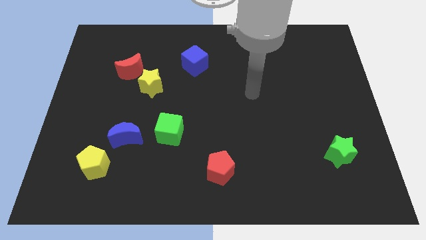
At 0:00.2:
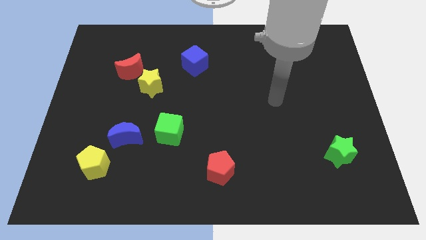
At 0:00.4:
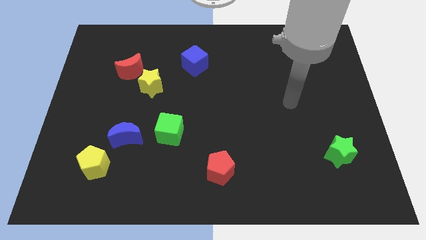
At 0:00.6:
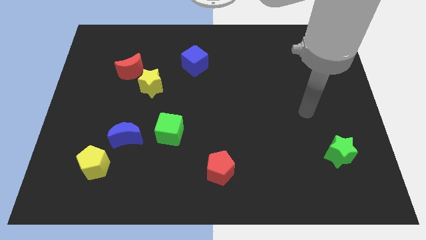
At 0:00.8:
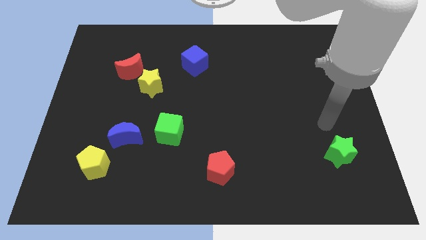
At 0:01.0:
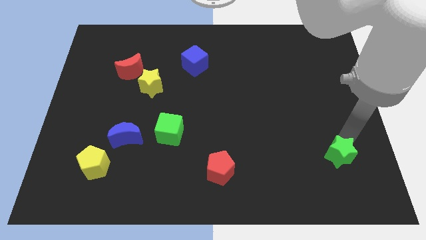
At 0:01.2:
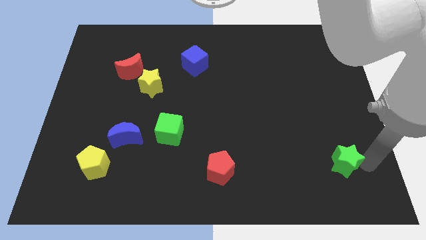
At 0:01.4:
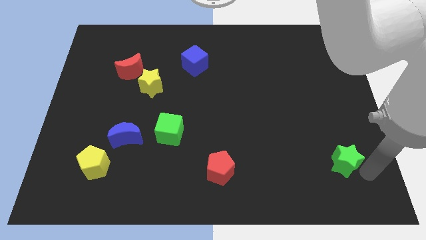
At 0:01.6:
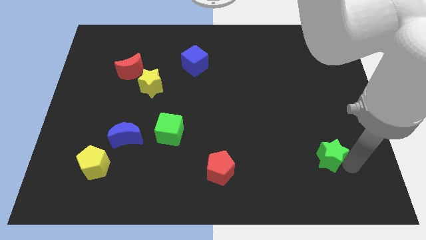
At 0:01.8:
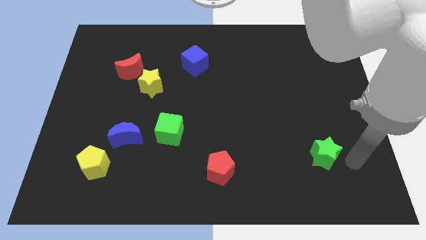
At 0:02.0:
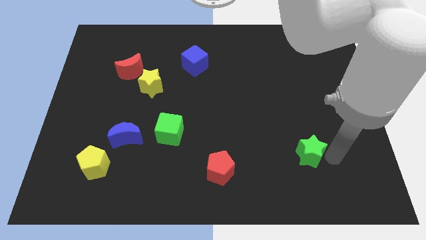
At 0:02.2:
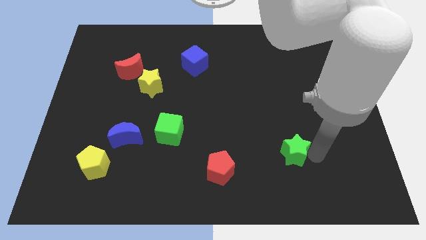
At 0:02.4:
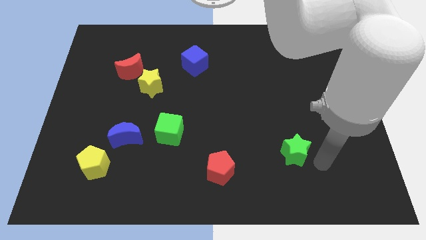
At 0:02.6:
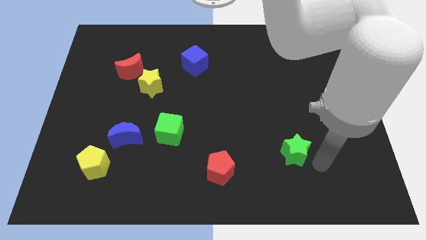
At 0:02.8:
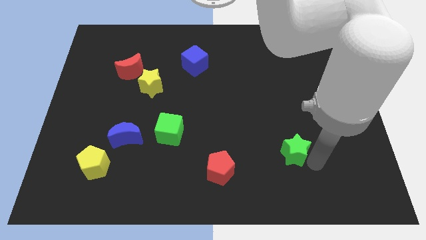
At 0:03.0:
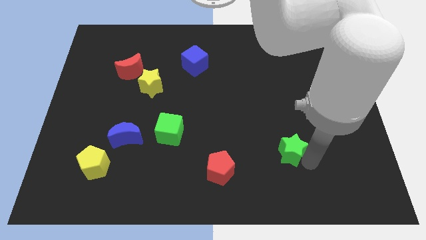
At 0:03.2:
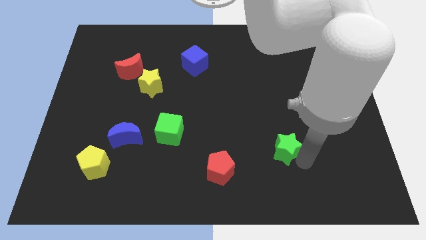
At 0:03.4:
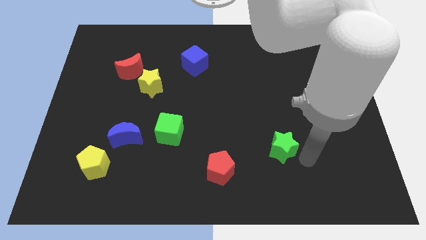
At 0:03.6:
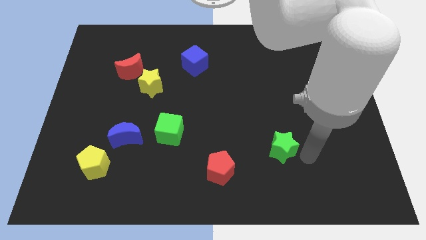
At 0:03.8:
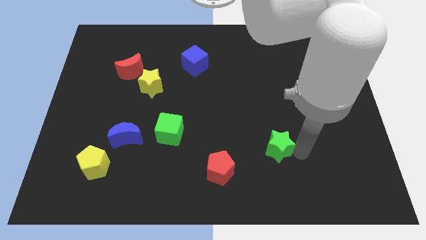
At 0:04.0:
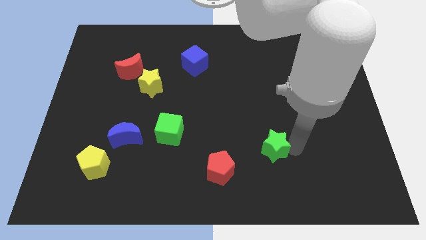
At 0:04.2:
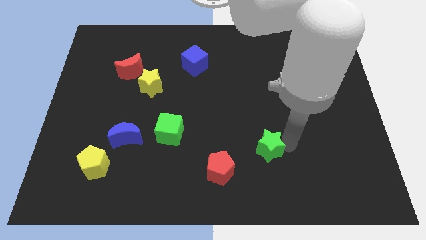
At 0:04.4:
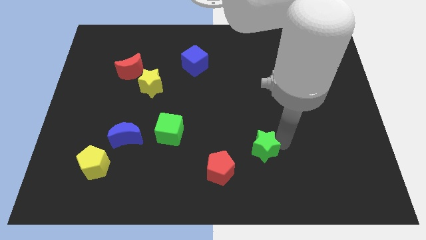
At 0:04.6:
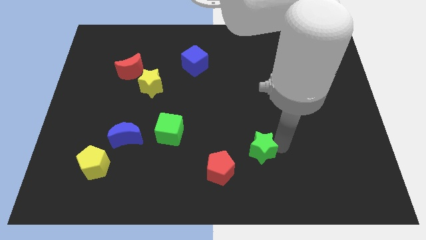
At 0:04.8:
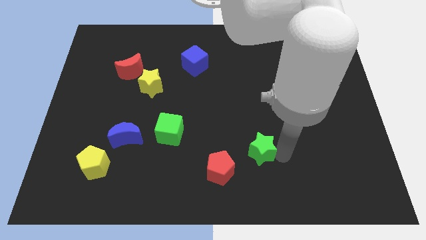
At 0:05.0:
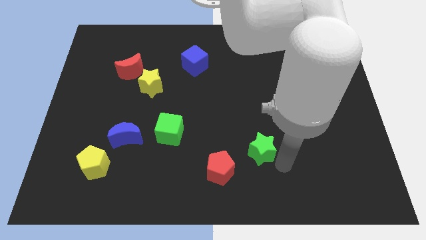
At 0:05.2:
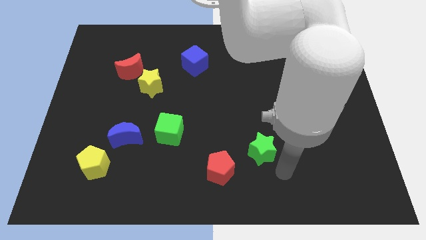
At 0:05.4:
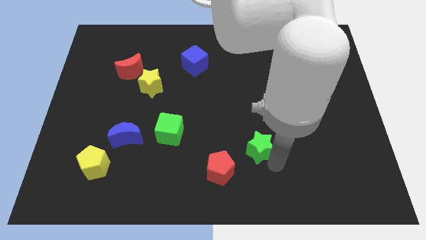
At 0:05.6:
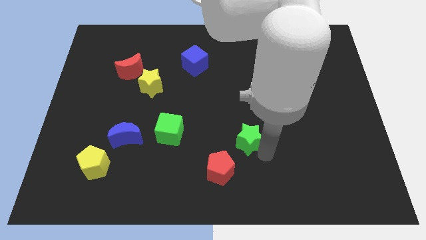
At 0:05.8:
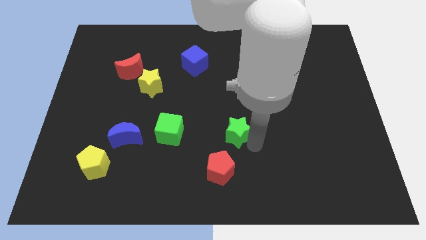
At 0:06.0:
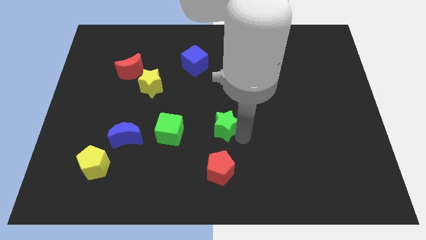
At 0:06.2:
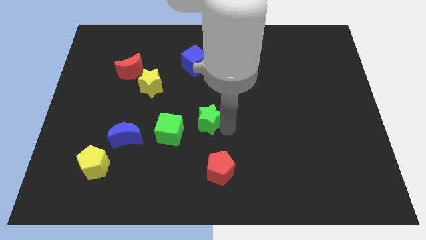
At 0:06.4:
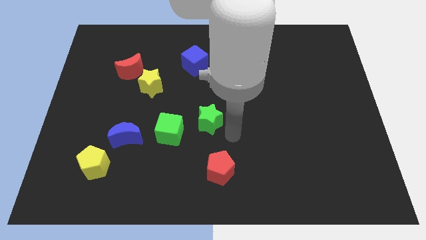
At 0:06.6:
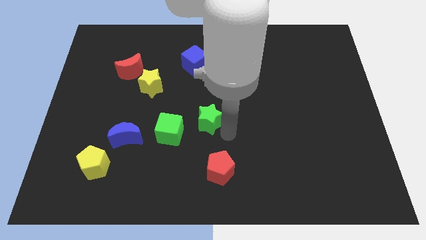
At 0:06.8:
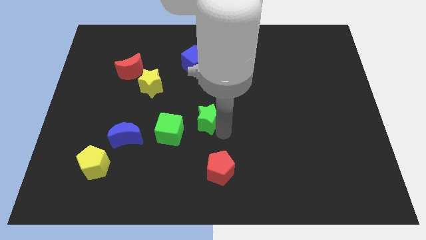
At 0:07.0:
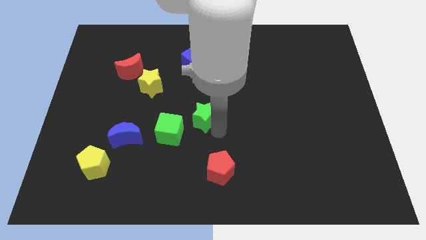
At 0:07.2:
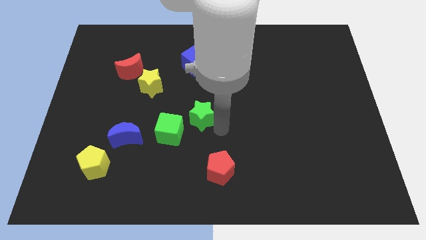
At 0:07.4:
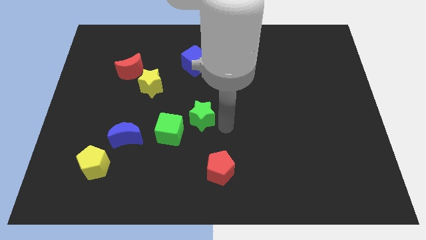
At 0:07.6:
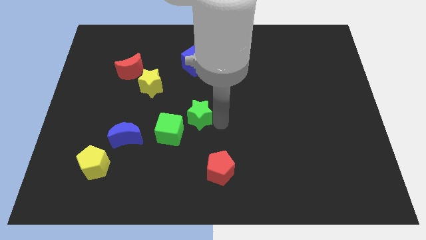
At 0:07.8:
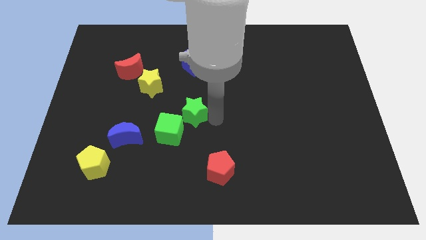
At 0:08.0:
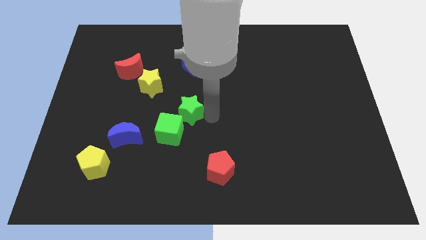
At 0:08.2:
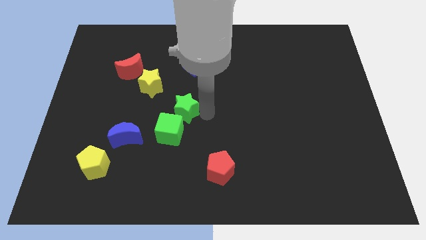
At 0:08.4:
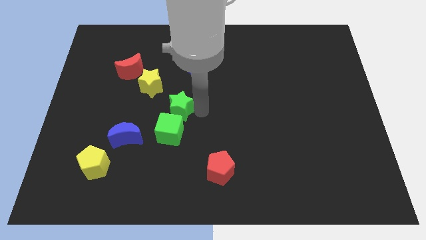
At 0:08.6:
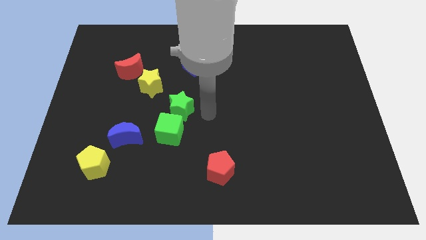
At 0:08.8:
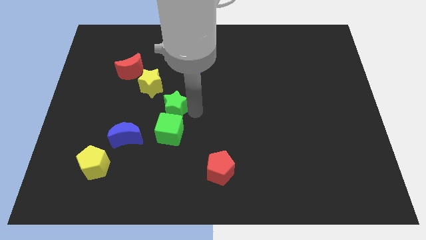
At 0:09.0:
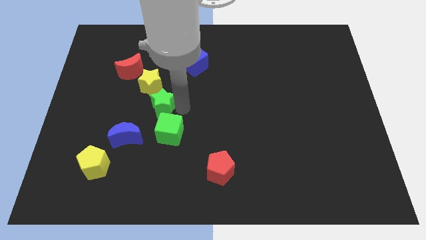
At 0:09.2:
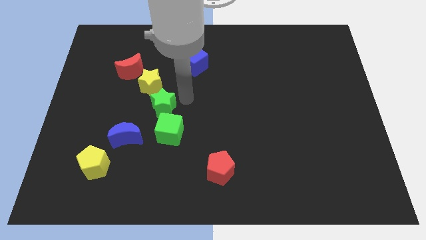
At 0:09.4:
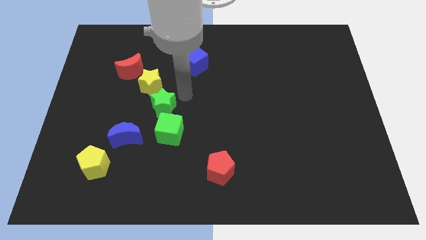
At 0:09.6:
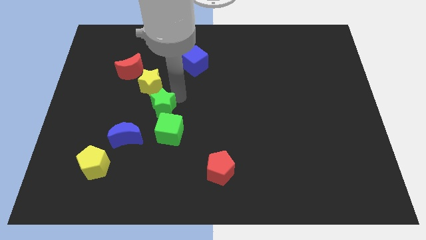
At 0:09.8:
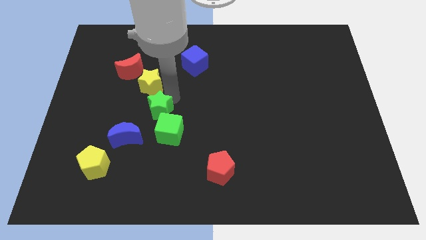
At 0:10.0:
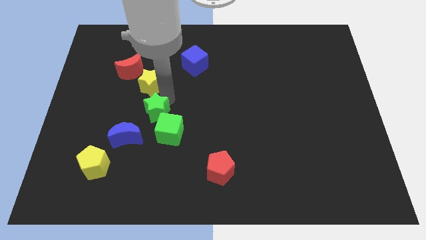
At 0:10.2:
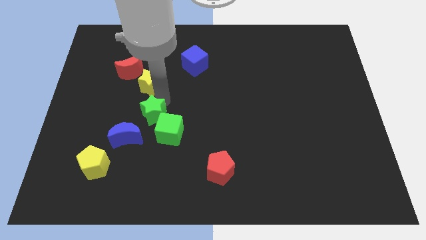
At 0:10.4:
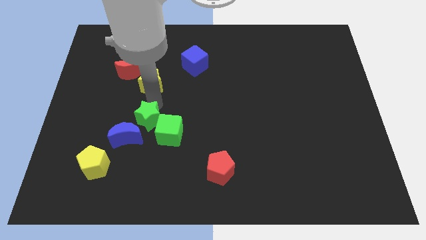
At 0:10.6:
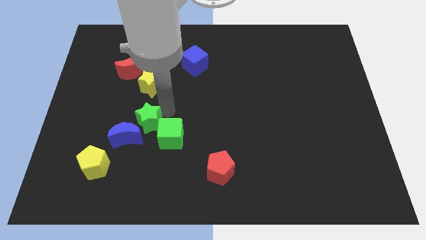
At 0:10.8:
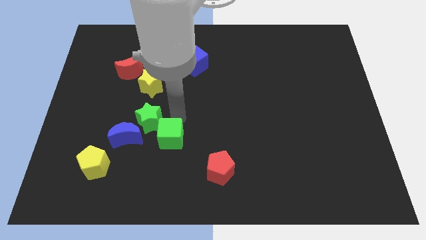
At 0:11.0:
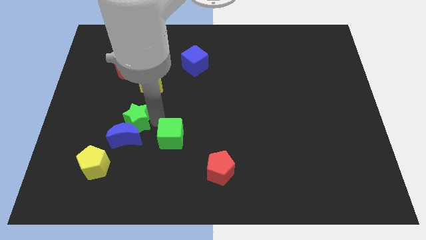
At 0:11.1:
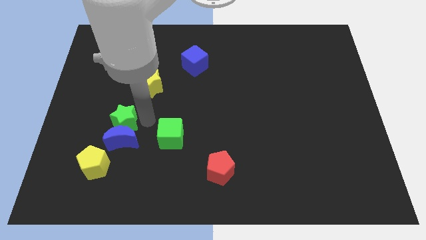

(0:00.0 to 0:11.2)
slide the green star above the yellow pentagon

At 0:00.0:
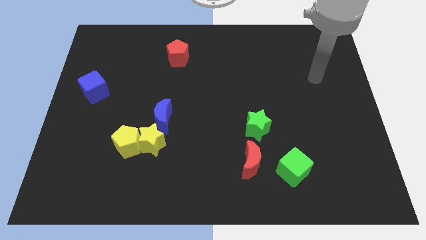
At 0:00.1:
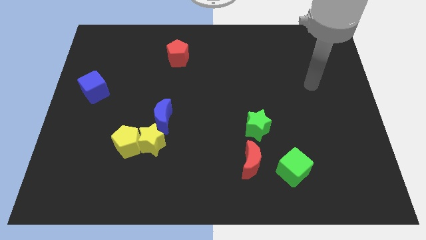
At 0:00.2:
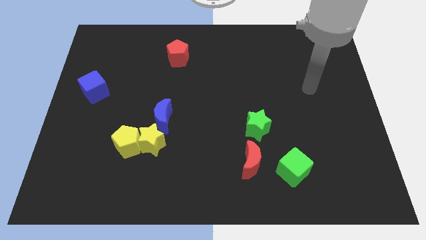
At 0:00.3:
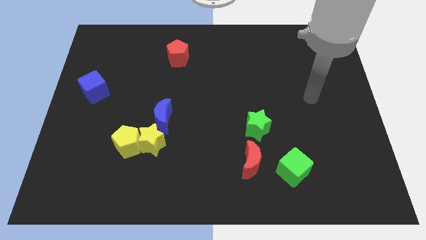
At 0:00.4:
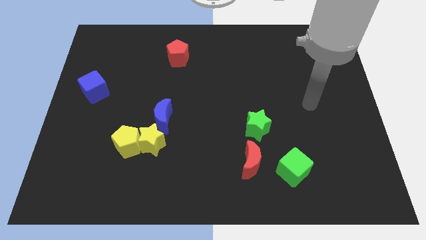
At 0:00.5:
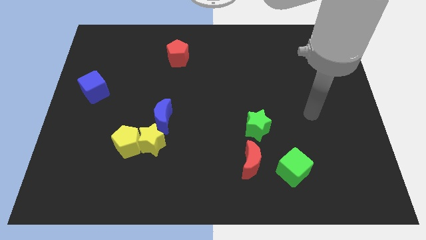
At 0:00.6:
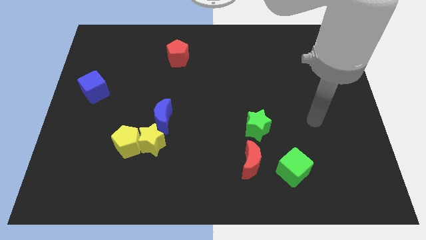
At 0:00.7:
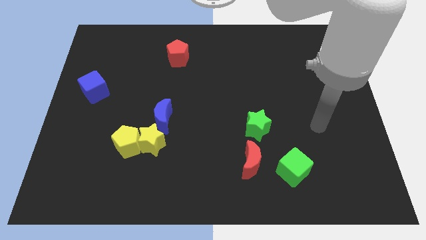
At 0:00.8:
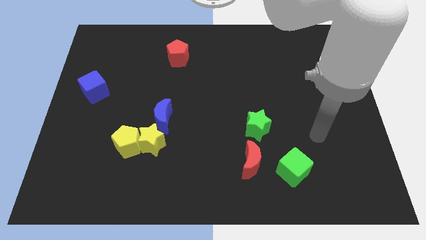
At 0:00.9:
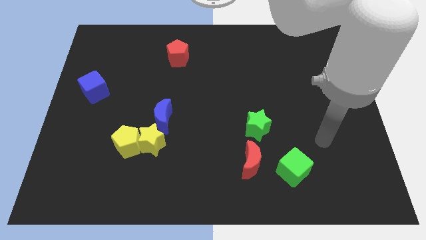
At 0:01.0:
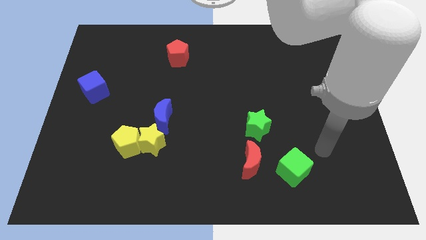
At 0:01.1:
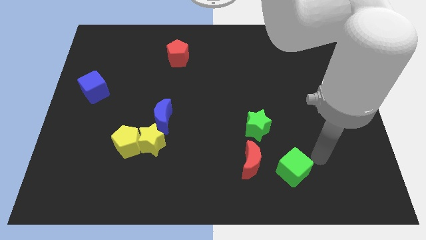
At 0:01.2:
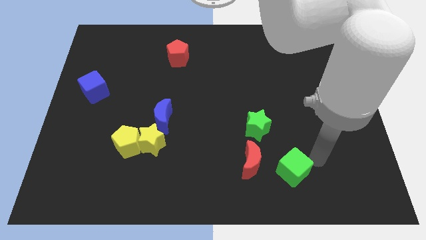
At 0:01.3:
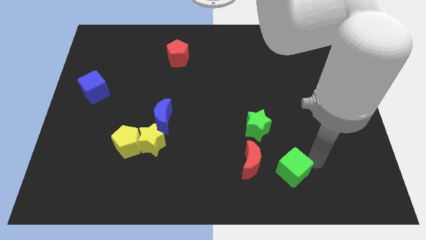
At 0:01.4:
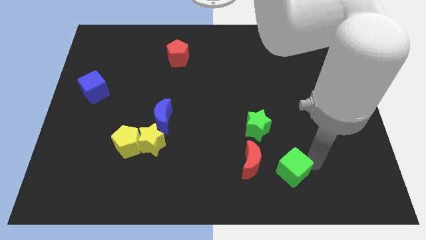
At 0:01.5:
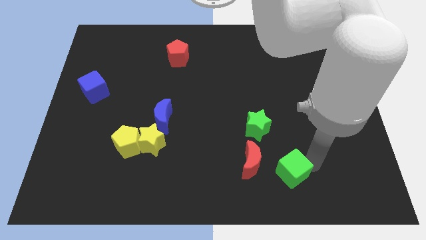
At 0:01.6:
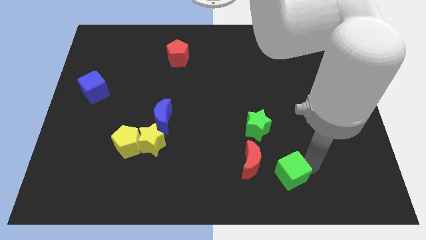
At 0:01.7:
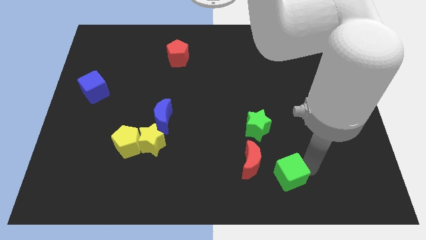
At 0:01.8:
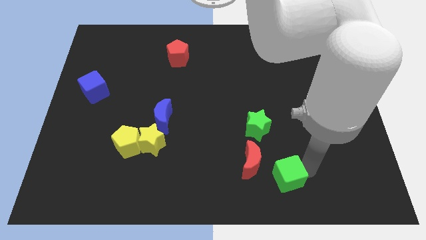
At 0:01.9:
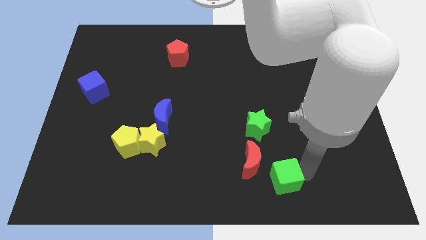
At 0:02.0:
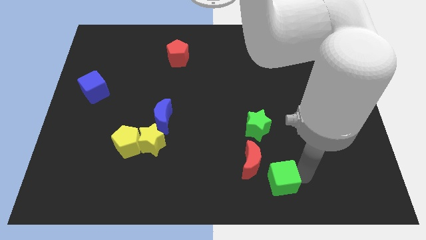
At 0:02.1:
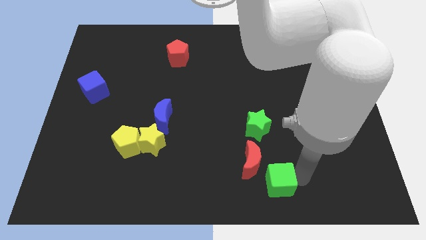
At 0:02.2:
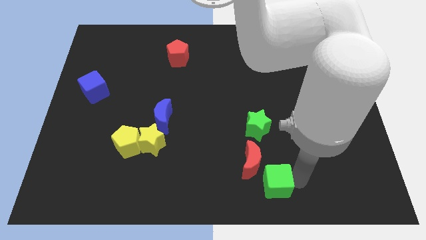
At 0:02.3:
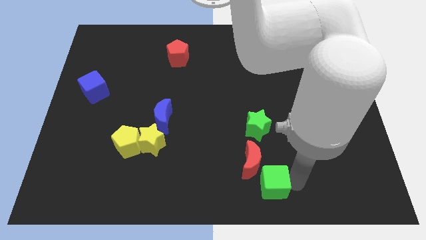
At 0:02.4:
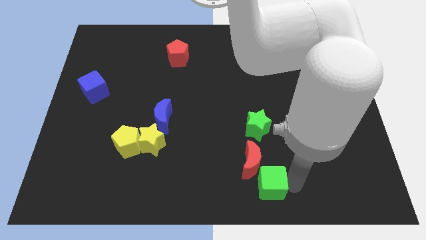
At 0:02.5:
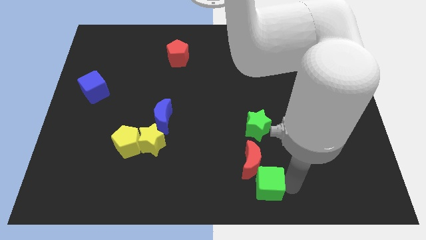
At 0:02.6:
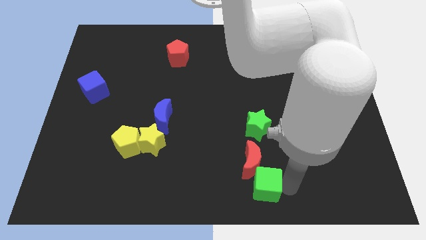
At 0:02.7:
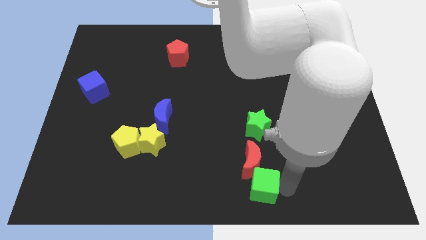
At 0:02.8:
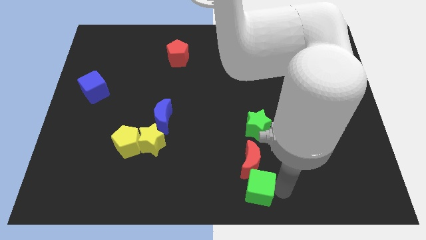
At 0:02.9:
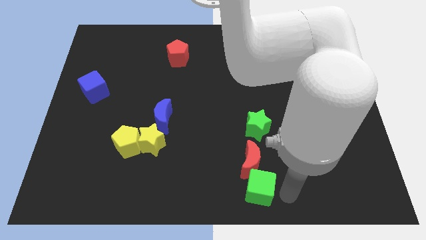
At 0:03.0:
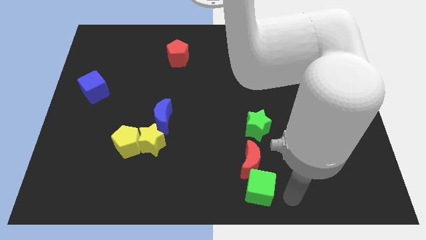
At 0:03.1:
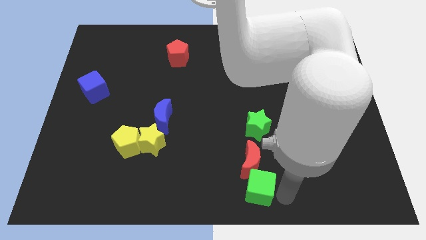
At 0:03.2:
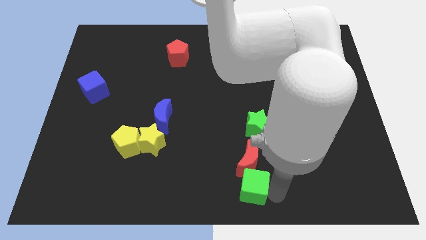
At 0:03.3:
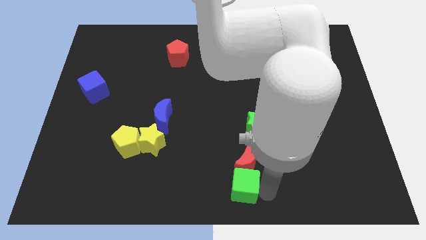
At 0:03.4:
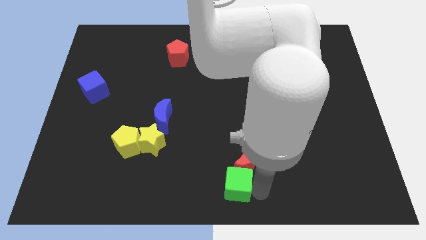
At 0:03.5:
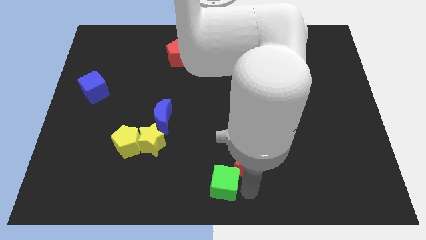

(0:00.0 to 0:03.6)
move the green cube to the left side of the red moon
